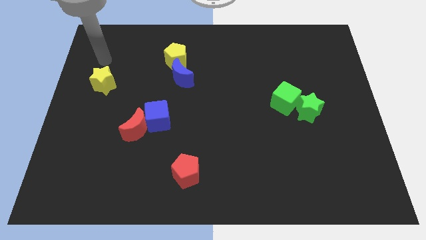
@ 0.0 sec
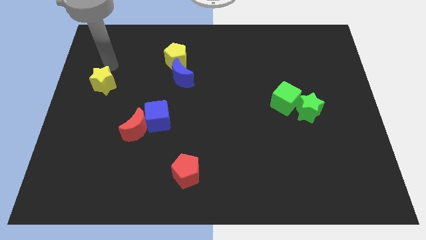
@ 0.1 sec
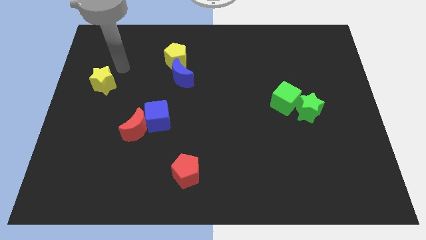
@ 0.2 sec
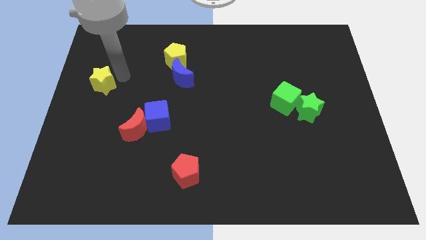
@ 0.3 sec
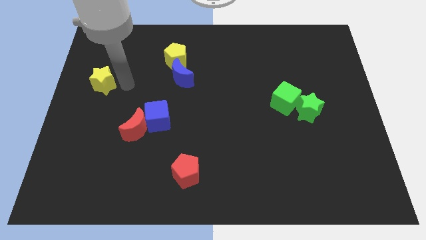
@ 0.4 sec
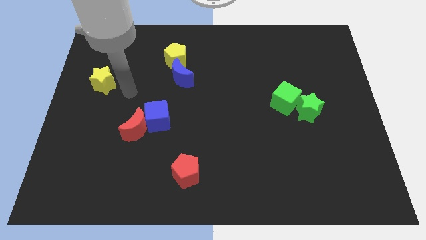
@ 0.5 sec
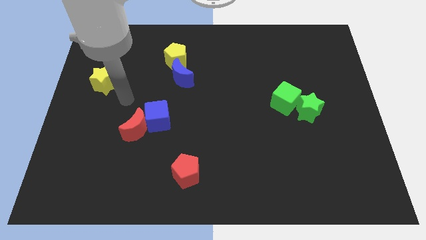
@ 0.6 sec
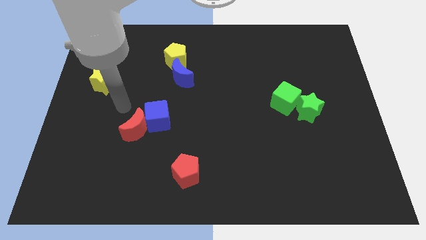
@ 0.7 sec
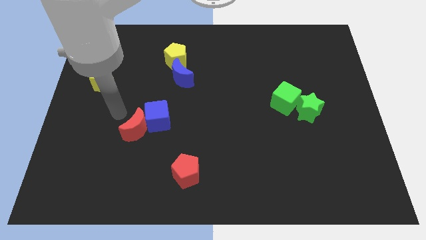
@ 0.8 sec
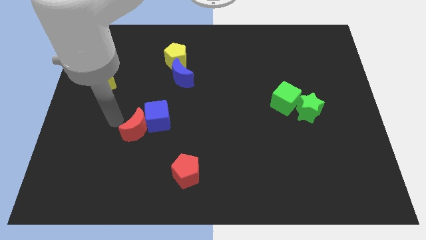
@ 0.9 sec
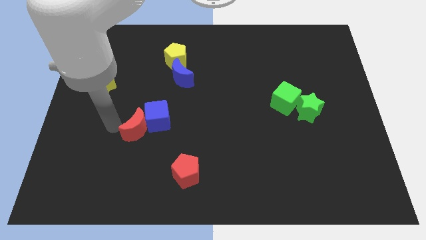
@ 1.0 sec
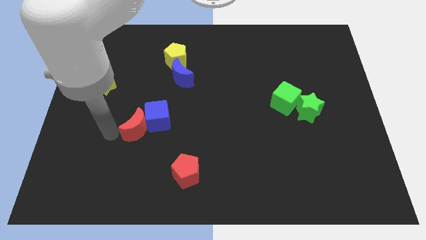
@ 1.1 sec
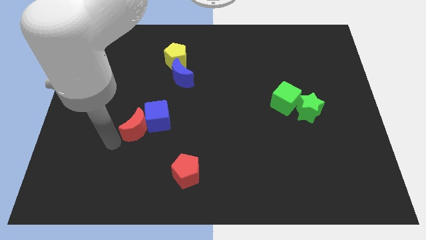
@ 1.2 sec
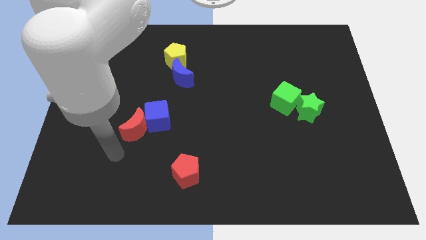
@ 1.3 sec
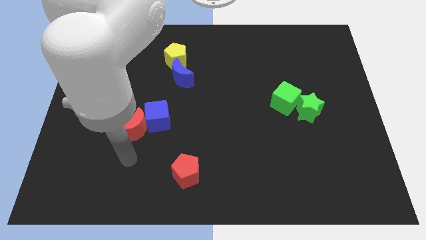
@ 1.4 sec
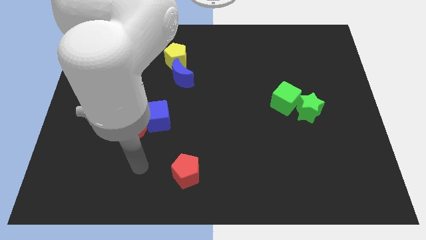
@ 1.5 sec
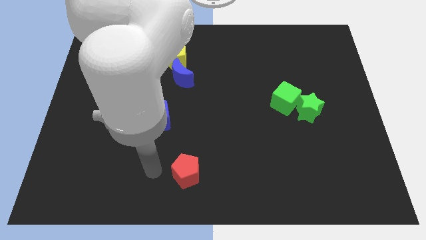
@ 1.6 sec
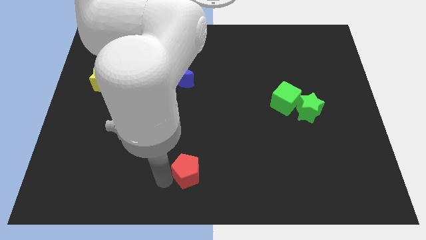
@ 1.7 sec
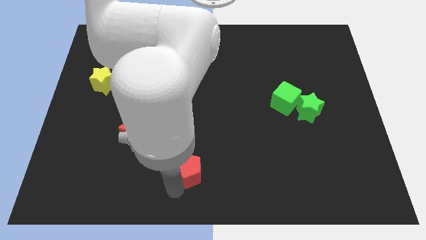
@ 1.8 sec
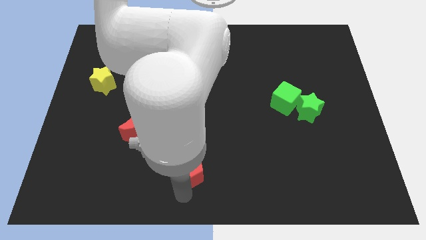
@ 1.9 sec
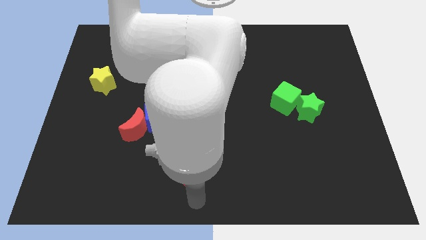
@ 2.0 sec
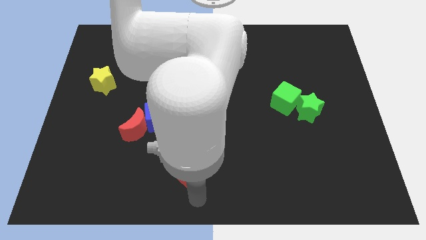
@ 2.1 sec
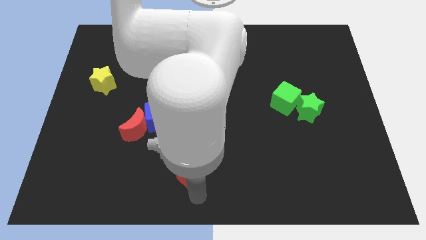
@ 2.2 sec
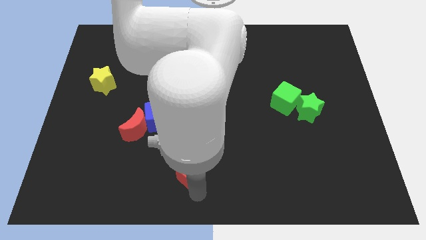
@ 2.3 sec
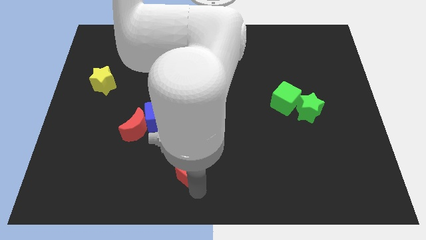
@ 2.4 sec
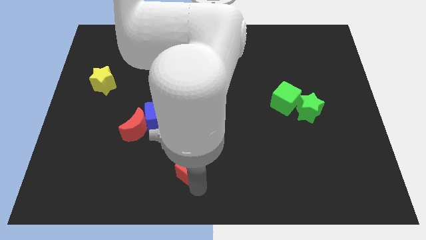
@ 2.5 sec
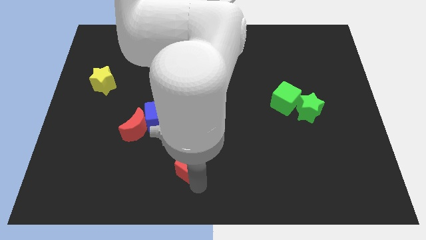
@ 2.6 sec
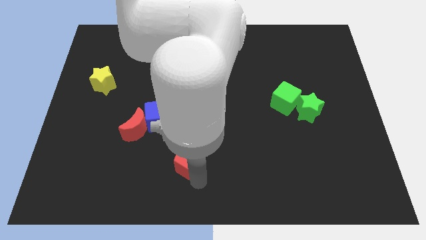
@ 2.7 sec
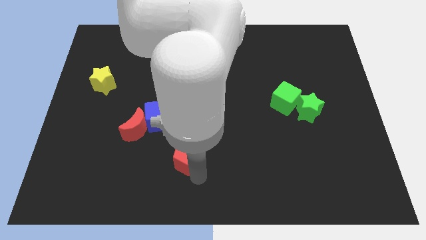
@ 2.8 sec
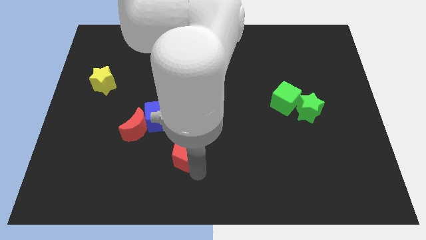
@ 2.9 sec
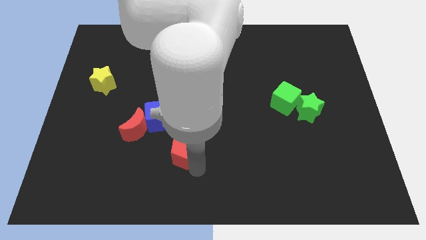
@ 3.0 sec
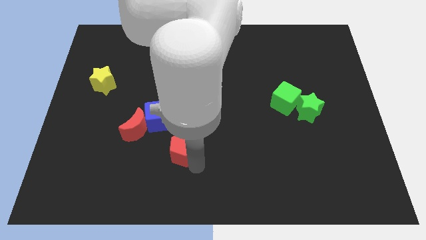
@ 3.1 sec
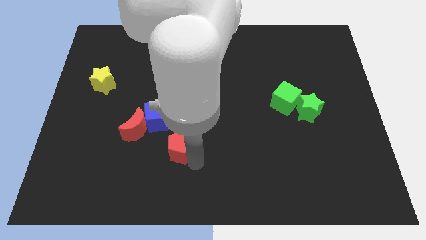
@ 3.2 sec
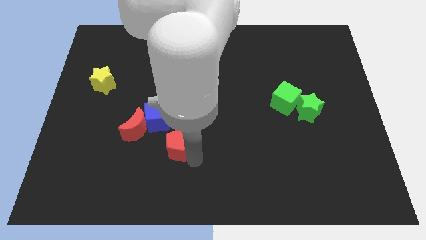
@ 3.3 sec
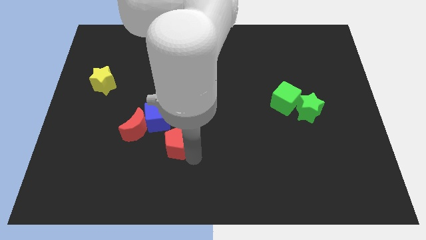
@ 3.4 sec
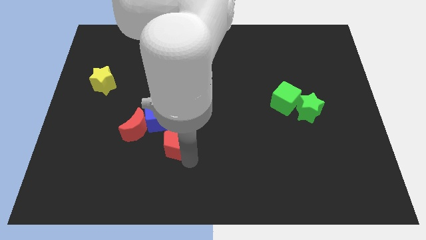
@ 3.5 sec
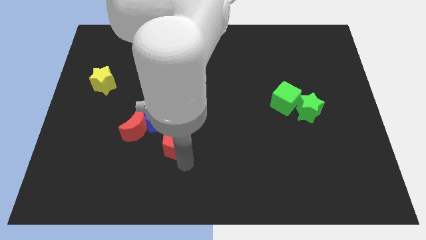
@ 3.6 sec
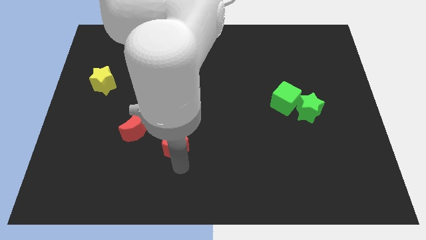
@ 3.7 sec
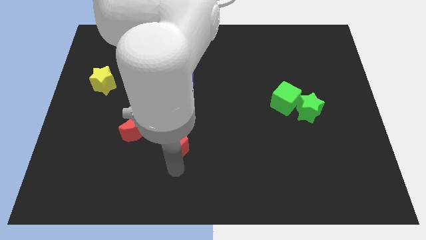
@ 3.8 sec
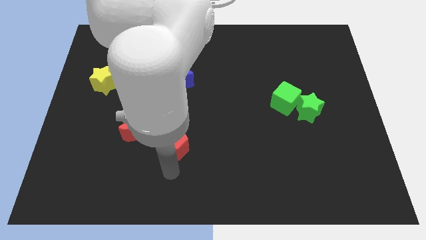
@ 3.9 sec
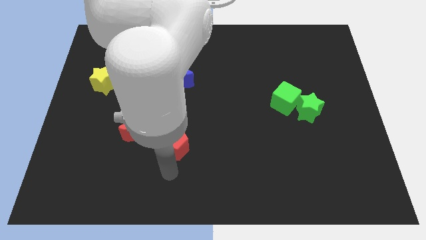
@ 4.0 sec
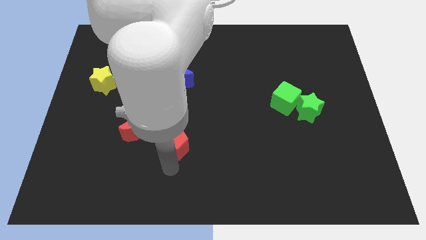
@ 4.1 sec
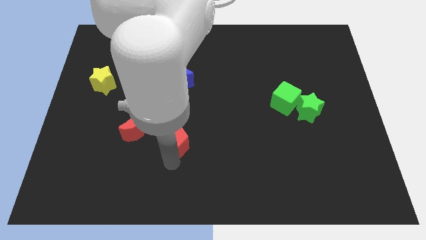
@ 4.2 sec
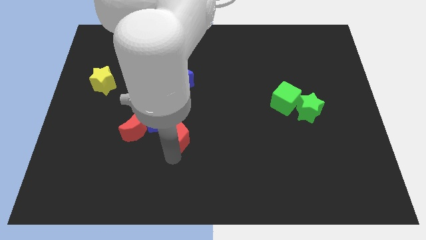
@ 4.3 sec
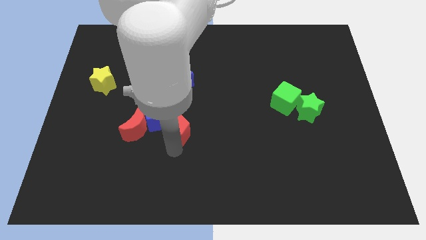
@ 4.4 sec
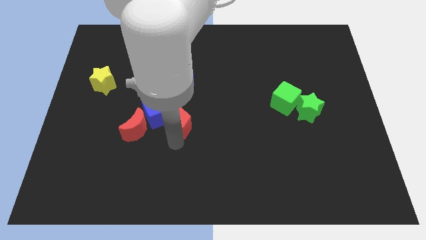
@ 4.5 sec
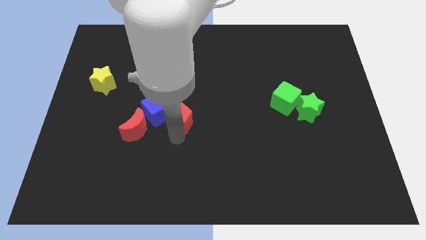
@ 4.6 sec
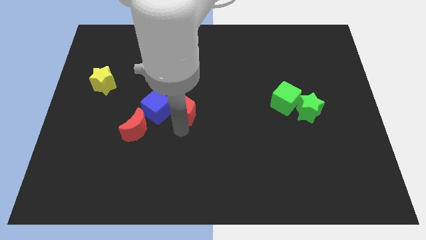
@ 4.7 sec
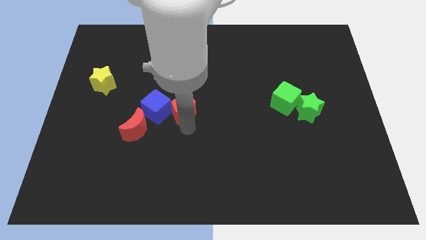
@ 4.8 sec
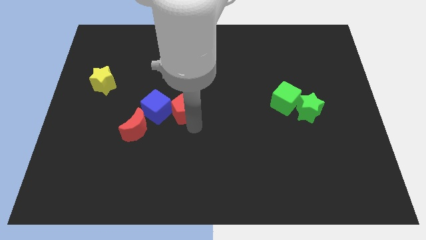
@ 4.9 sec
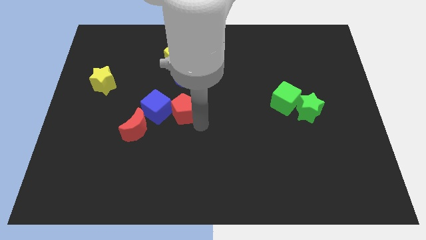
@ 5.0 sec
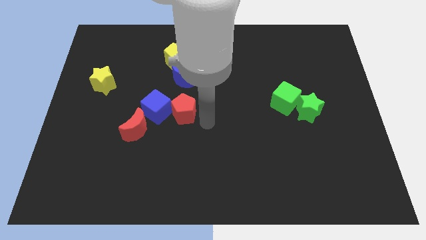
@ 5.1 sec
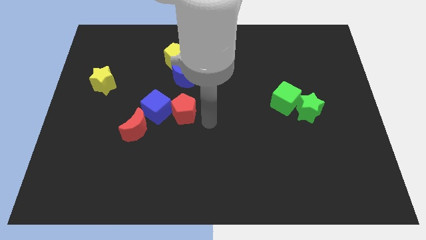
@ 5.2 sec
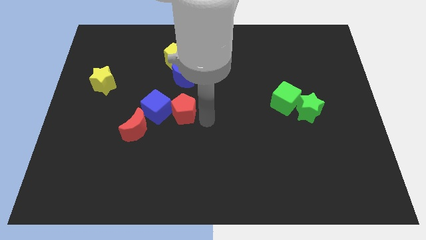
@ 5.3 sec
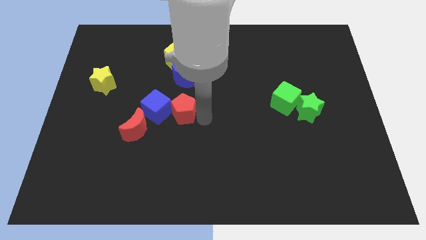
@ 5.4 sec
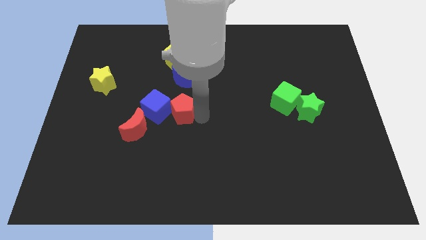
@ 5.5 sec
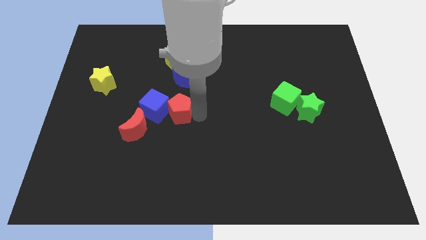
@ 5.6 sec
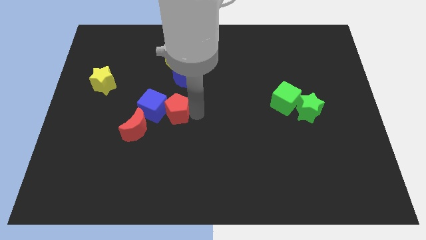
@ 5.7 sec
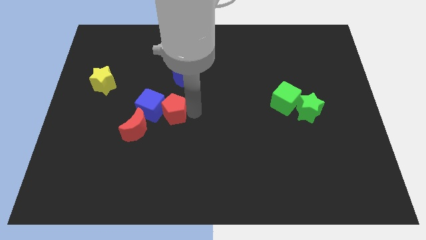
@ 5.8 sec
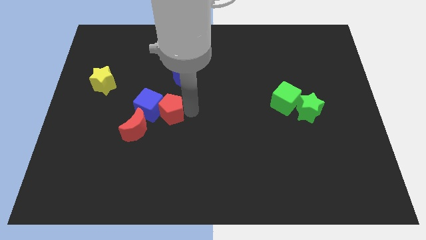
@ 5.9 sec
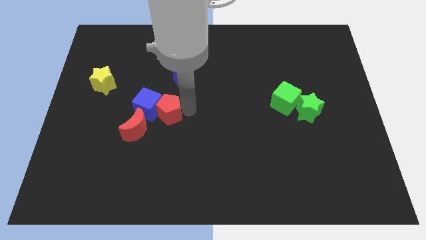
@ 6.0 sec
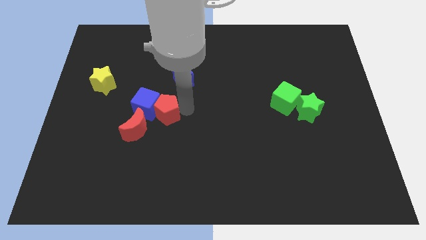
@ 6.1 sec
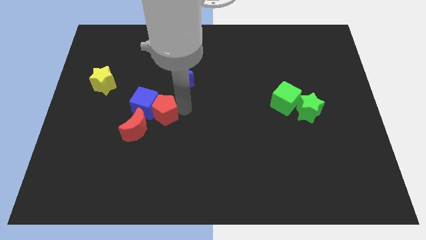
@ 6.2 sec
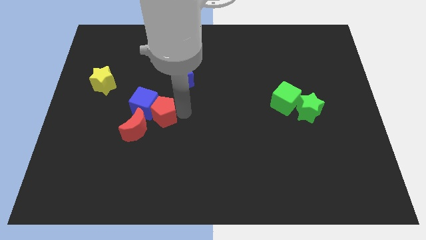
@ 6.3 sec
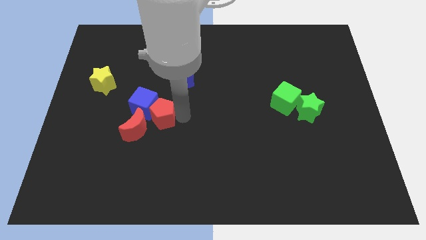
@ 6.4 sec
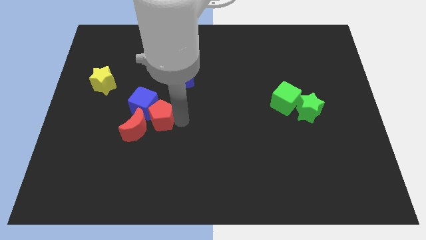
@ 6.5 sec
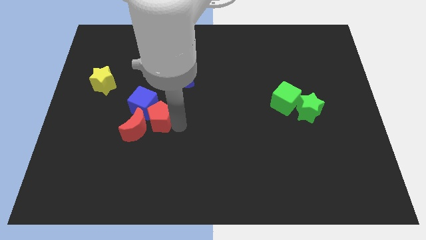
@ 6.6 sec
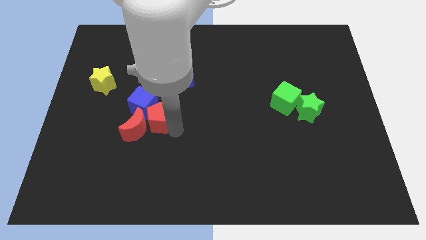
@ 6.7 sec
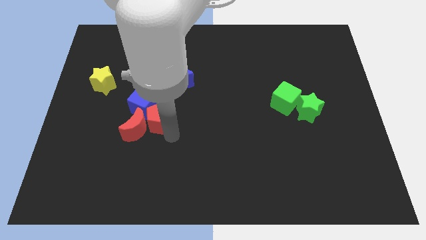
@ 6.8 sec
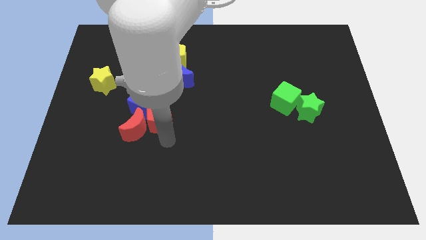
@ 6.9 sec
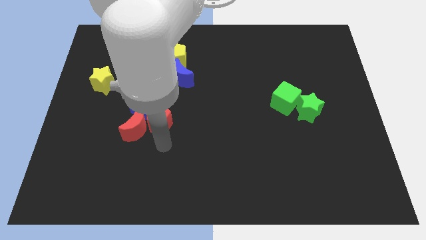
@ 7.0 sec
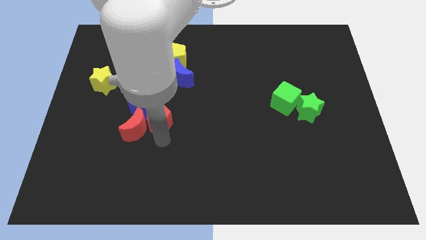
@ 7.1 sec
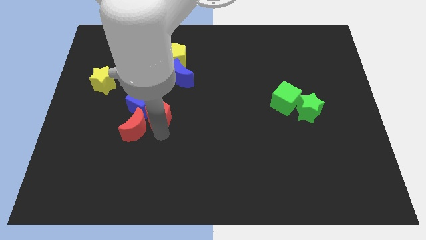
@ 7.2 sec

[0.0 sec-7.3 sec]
put the red pentagon to the top of the red moon

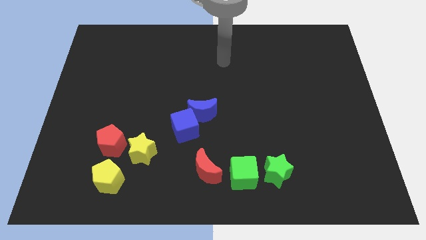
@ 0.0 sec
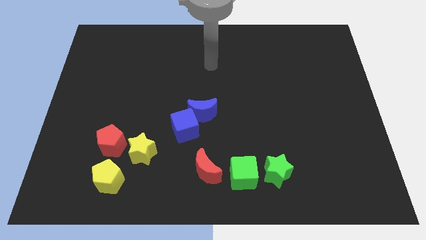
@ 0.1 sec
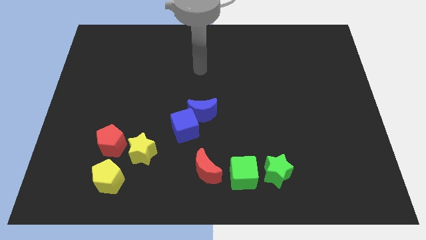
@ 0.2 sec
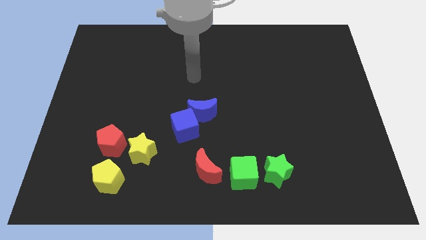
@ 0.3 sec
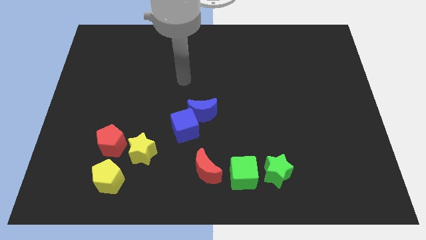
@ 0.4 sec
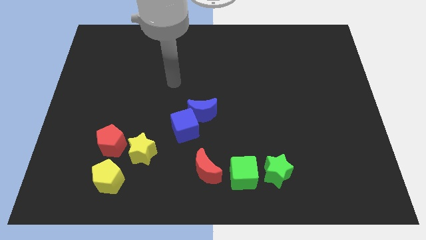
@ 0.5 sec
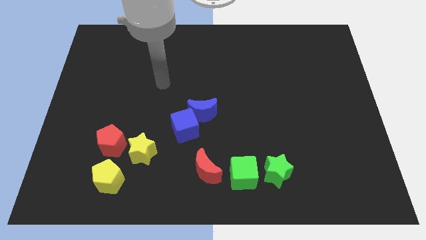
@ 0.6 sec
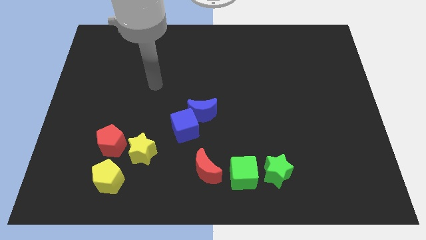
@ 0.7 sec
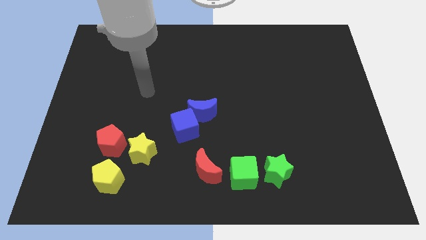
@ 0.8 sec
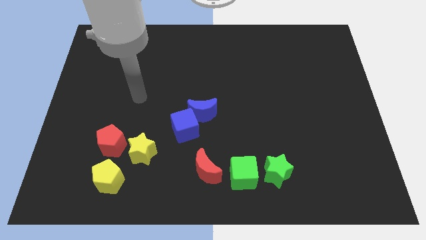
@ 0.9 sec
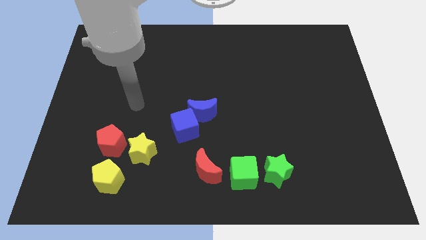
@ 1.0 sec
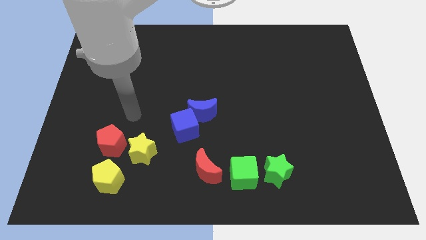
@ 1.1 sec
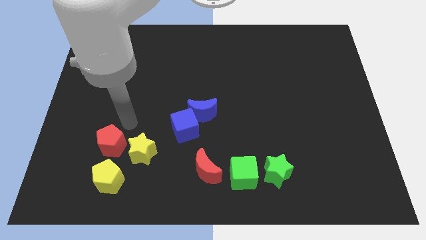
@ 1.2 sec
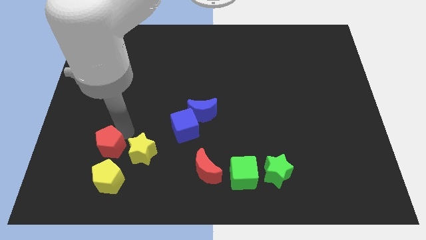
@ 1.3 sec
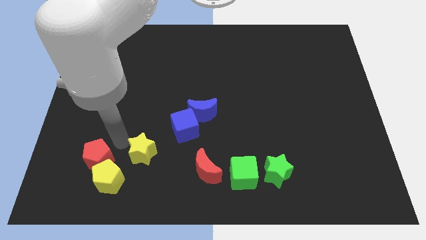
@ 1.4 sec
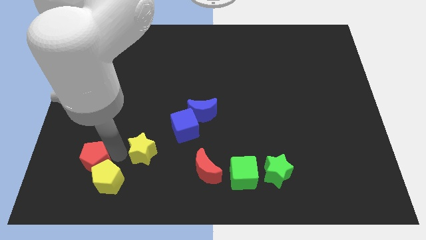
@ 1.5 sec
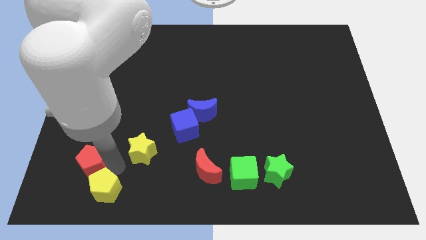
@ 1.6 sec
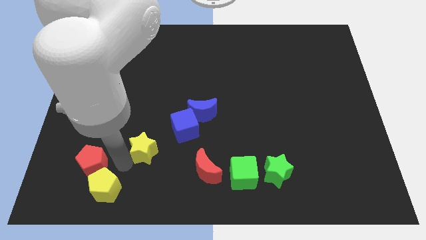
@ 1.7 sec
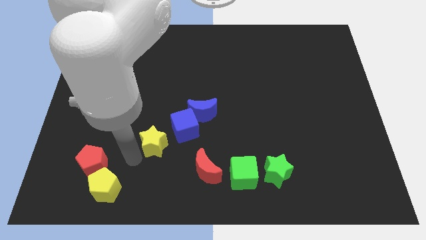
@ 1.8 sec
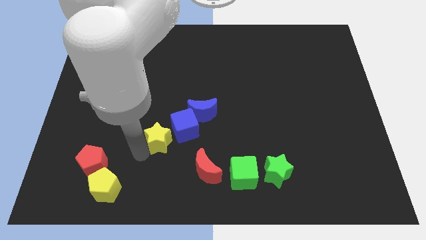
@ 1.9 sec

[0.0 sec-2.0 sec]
slide the yellow star to the bottom left side of the blue moon
